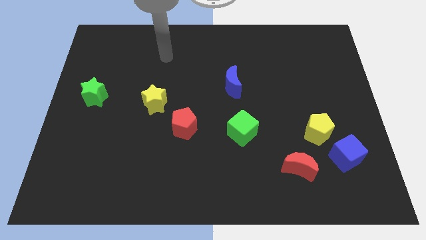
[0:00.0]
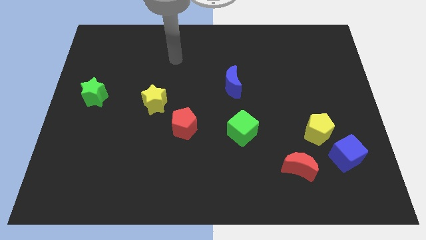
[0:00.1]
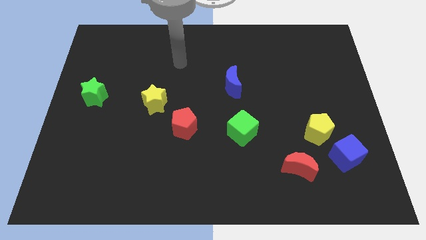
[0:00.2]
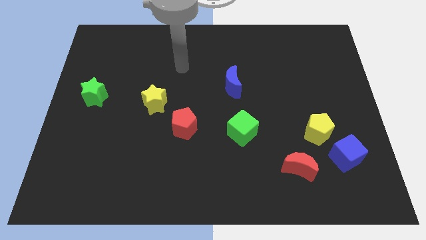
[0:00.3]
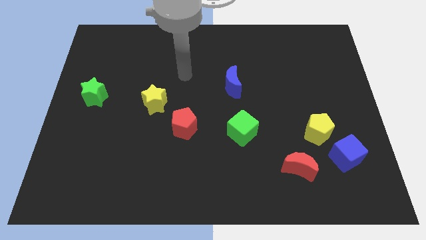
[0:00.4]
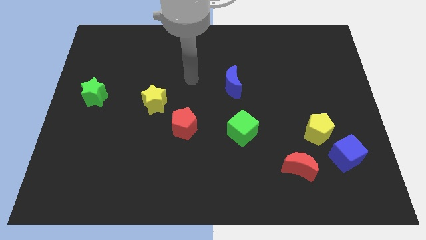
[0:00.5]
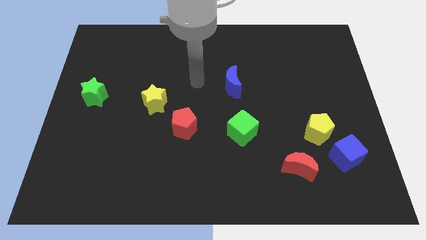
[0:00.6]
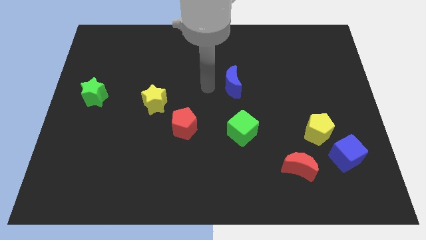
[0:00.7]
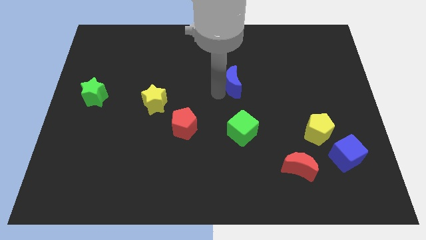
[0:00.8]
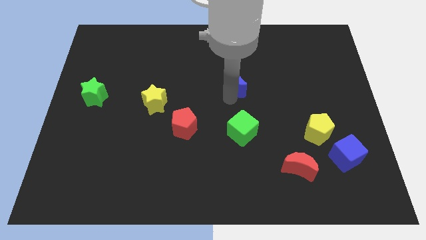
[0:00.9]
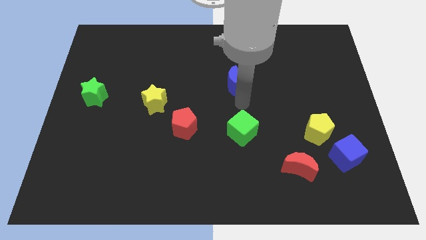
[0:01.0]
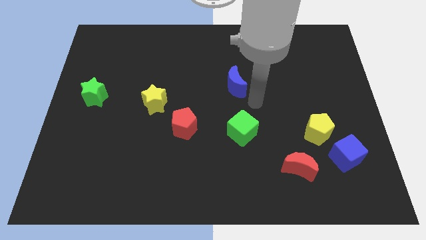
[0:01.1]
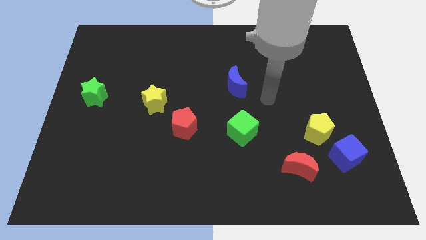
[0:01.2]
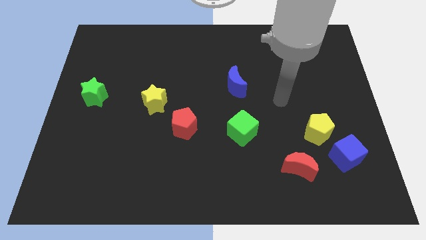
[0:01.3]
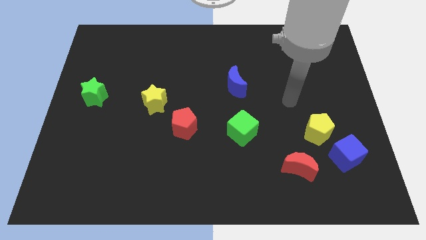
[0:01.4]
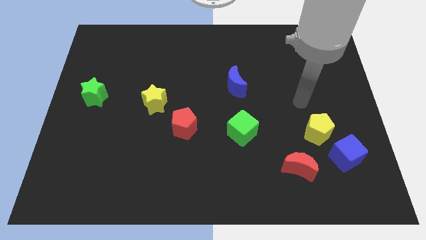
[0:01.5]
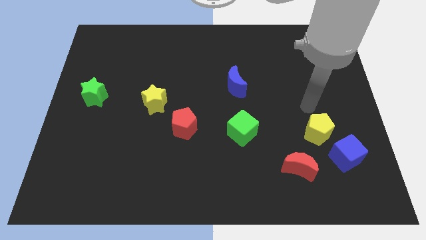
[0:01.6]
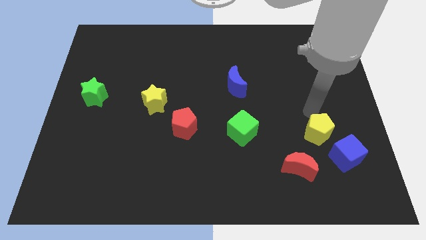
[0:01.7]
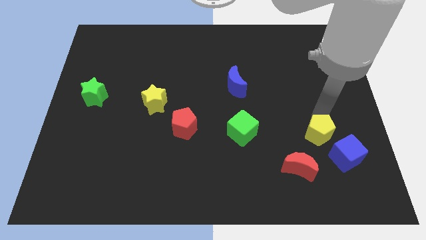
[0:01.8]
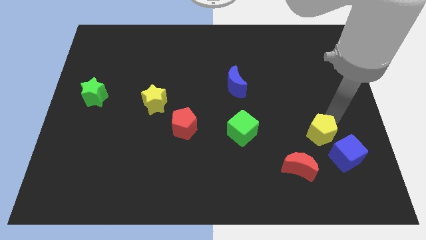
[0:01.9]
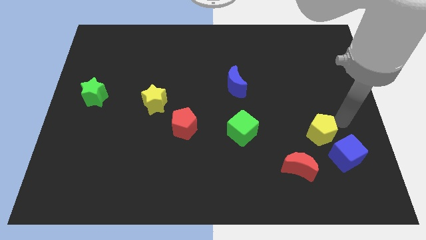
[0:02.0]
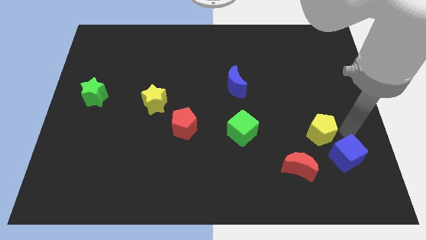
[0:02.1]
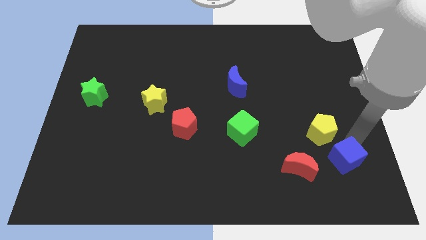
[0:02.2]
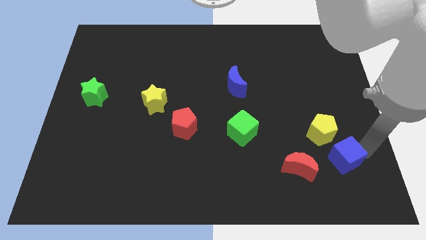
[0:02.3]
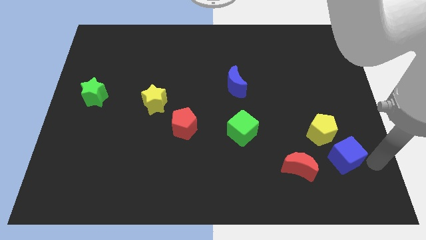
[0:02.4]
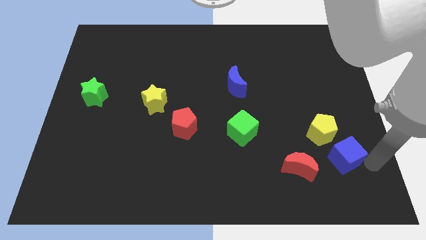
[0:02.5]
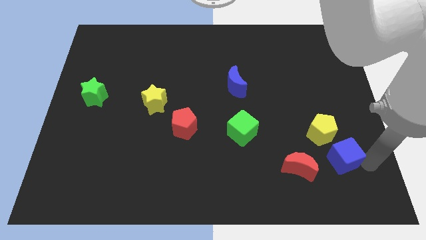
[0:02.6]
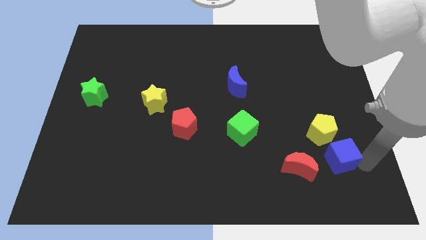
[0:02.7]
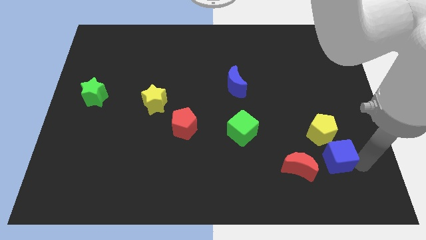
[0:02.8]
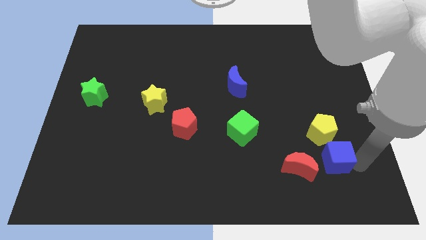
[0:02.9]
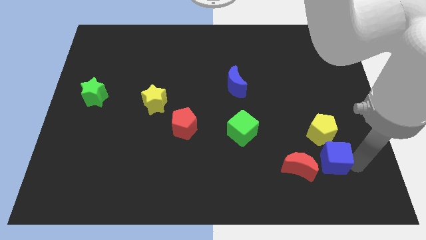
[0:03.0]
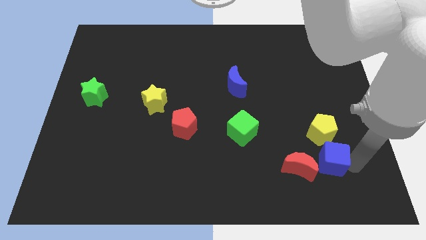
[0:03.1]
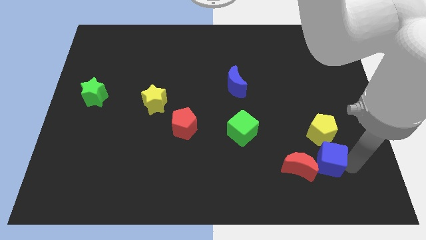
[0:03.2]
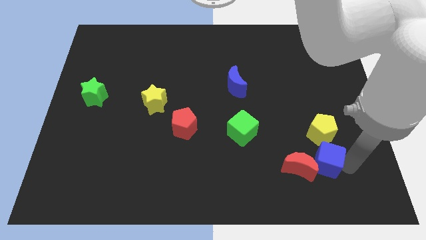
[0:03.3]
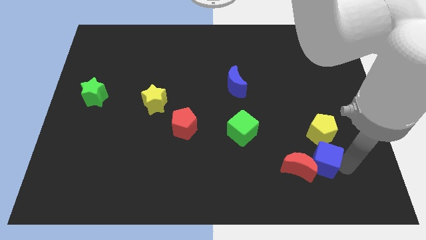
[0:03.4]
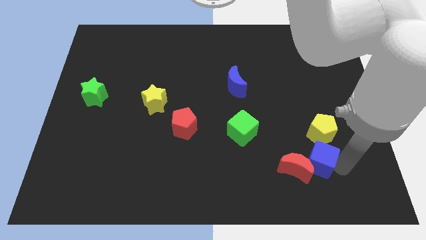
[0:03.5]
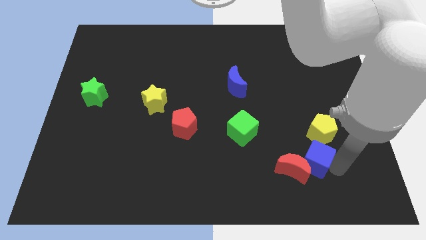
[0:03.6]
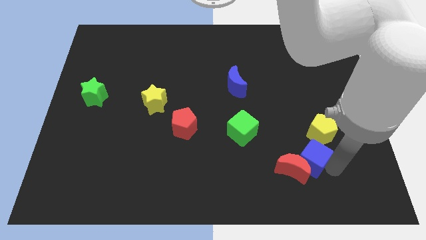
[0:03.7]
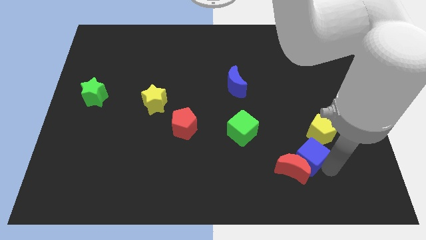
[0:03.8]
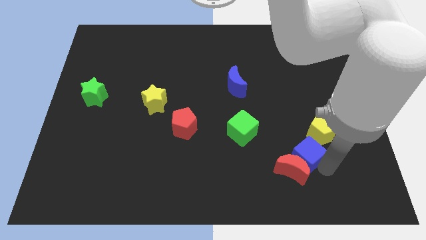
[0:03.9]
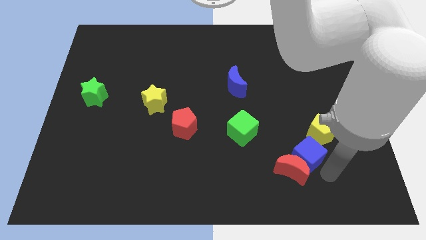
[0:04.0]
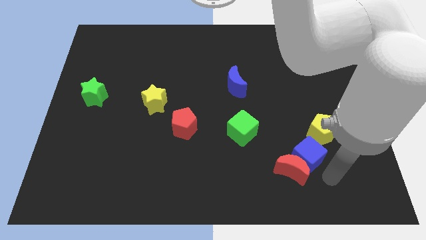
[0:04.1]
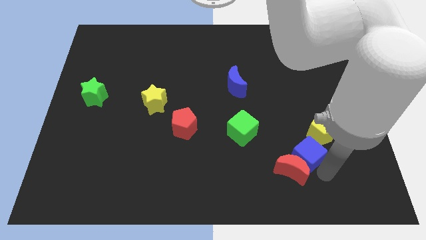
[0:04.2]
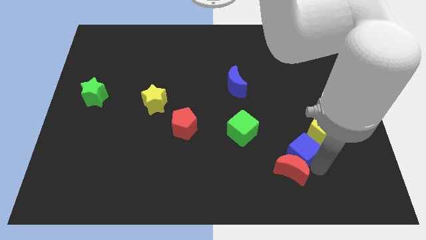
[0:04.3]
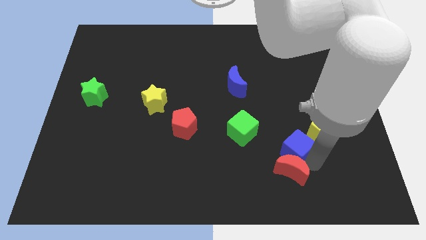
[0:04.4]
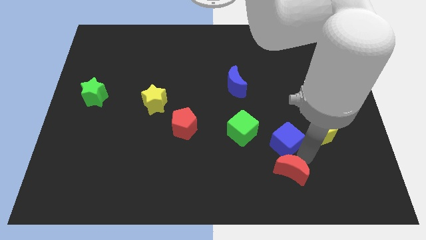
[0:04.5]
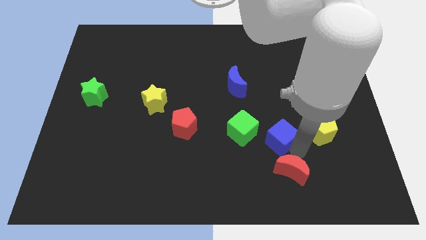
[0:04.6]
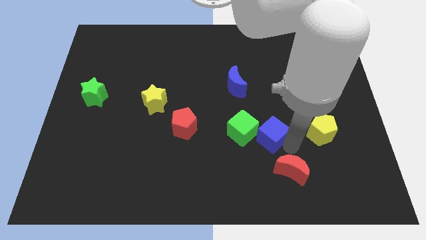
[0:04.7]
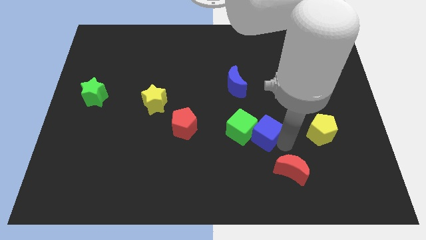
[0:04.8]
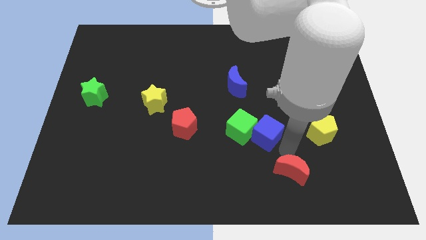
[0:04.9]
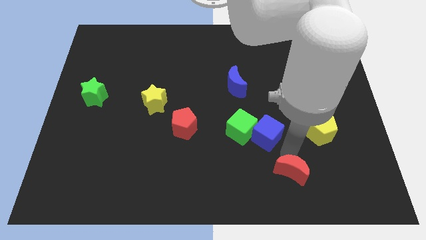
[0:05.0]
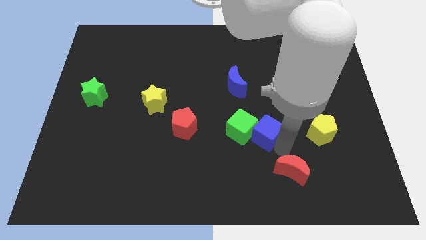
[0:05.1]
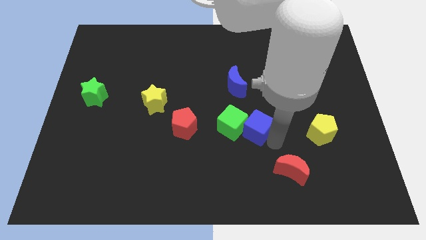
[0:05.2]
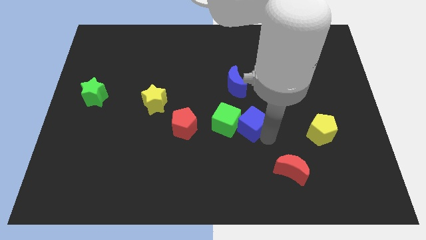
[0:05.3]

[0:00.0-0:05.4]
move the blue cube to the center of the board

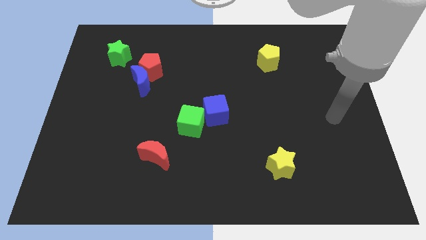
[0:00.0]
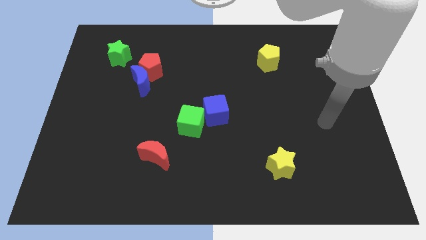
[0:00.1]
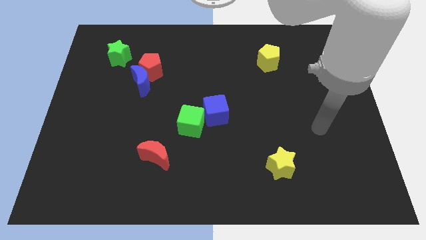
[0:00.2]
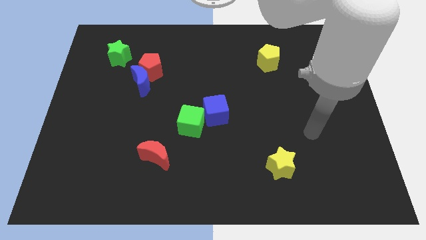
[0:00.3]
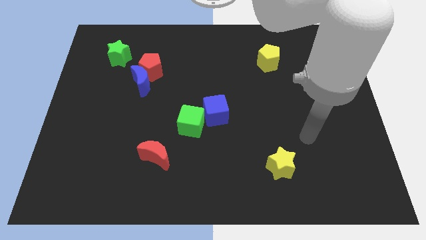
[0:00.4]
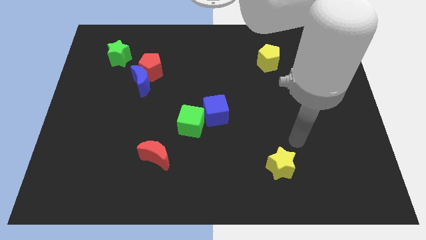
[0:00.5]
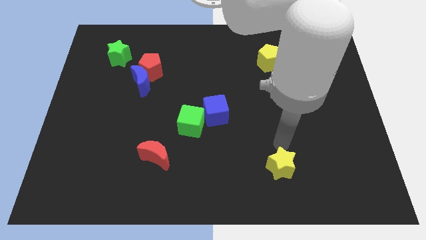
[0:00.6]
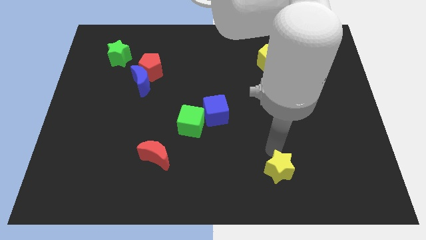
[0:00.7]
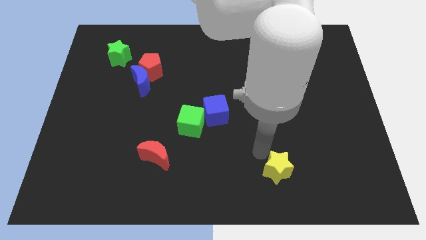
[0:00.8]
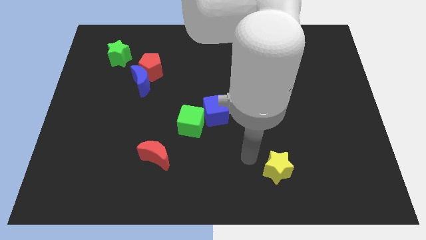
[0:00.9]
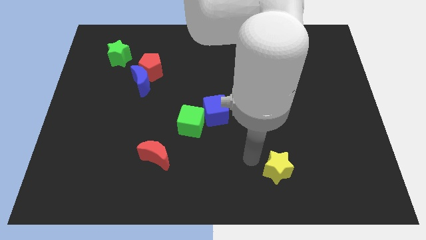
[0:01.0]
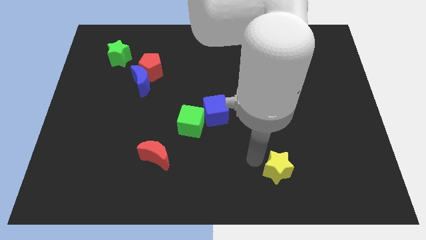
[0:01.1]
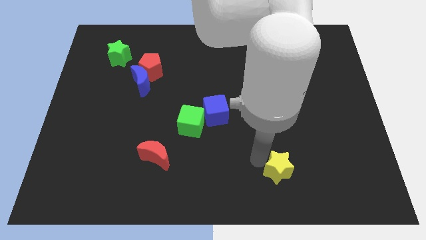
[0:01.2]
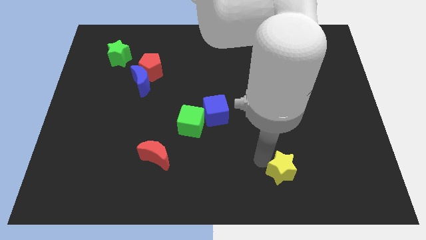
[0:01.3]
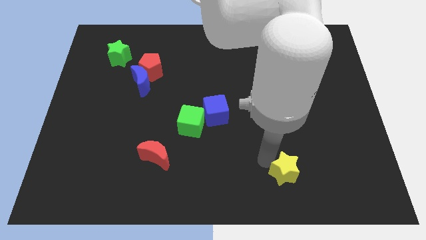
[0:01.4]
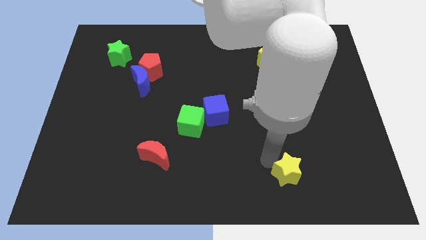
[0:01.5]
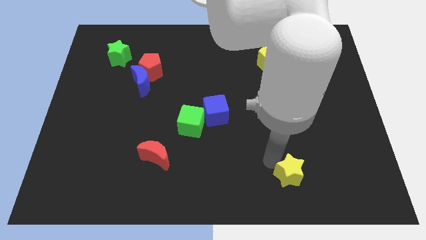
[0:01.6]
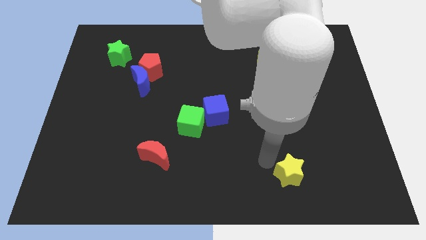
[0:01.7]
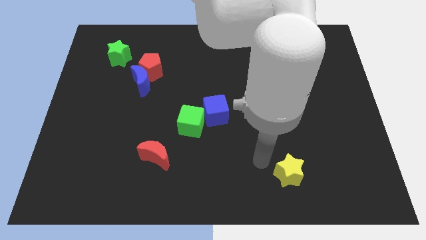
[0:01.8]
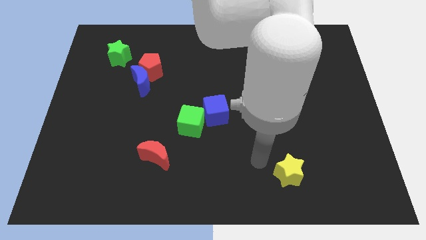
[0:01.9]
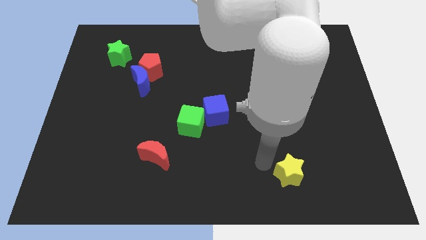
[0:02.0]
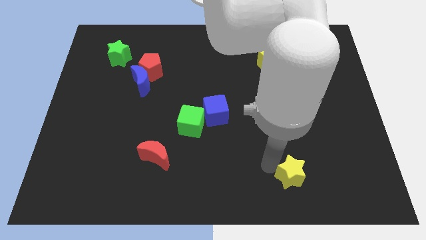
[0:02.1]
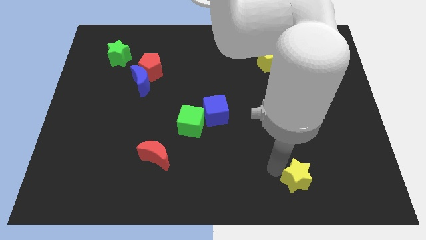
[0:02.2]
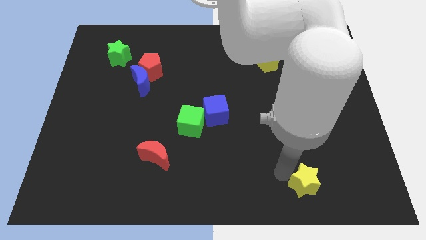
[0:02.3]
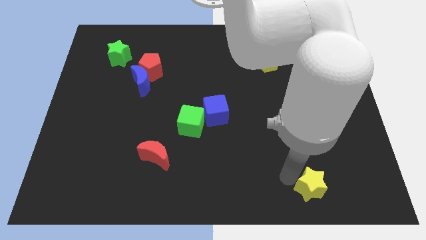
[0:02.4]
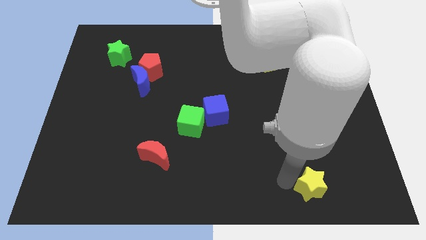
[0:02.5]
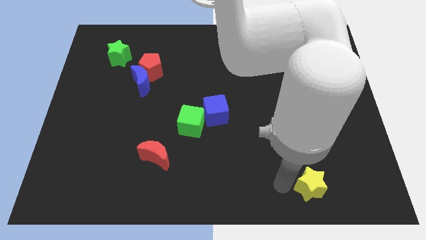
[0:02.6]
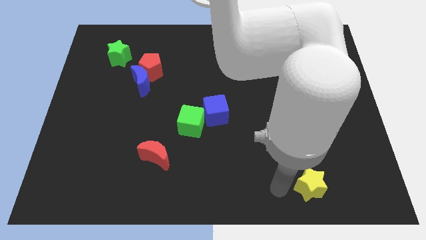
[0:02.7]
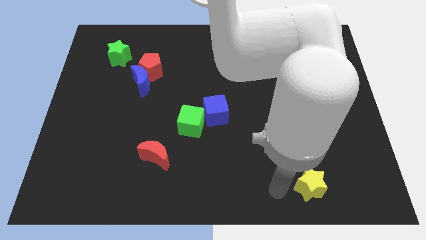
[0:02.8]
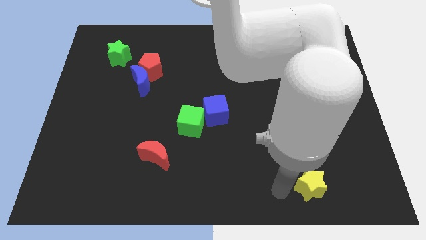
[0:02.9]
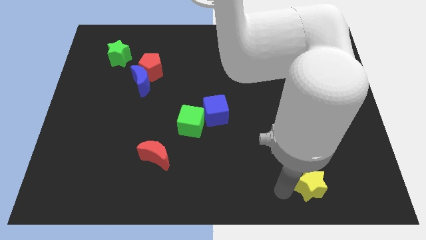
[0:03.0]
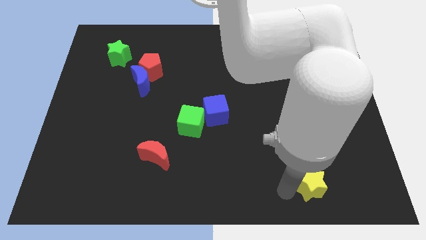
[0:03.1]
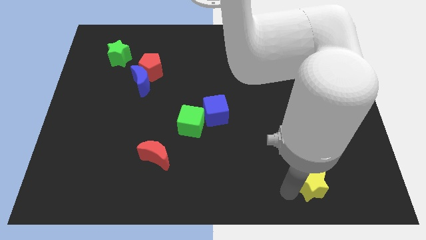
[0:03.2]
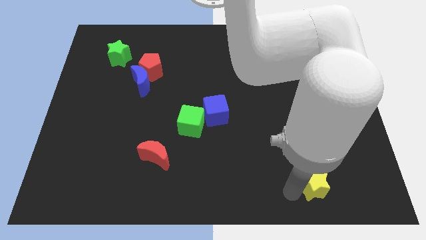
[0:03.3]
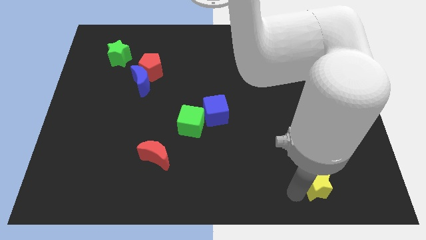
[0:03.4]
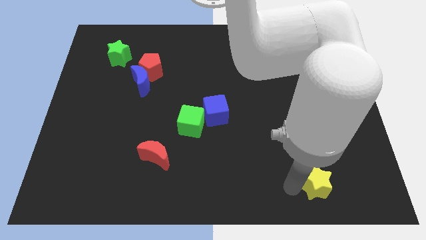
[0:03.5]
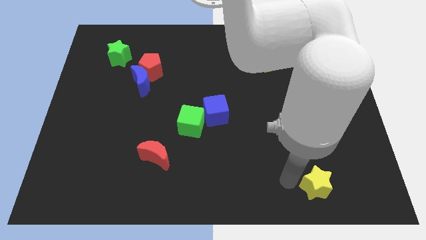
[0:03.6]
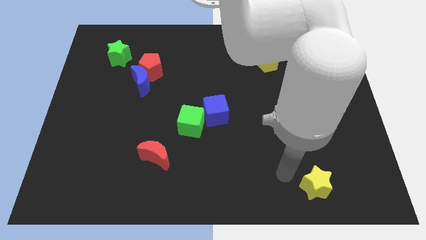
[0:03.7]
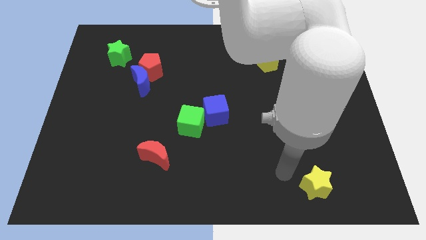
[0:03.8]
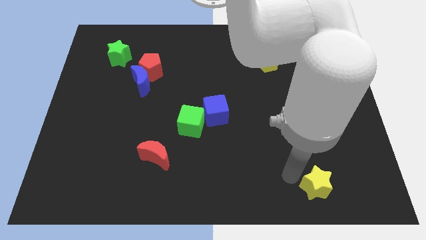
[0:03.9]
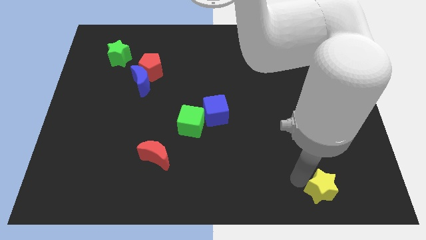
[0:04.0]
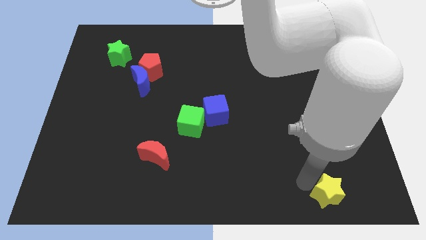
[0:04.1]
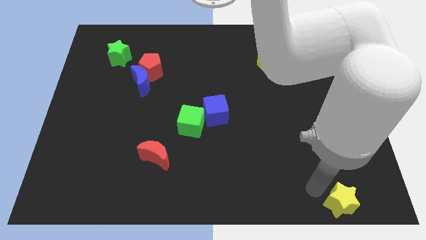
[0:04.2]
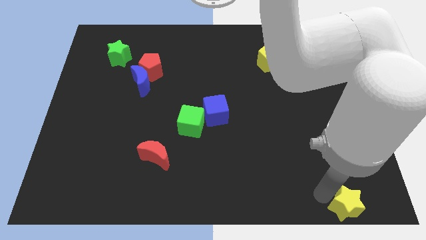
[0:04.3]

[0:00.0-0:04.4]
push the yellow star to the bottom right
